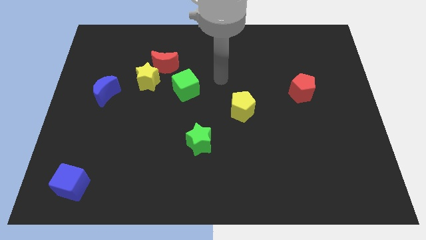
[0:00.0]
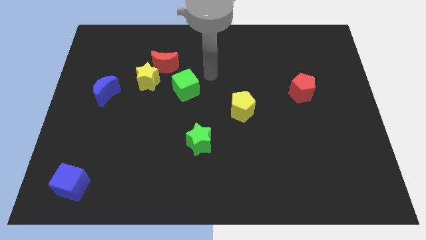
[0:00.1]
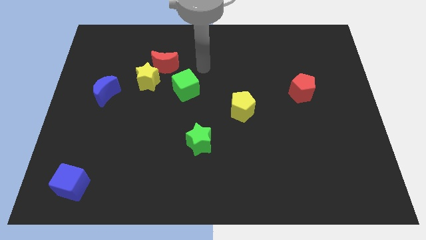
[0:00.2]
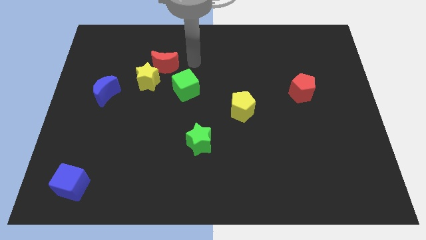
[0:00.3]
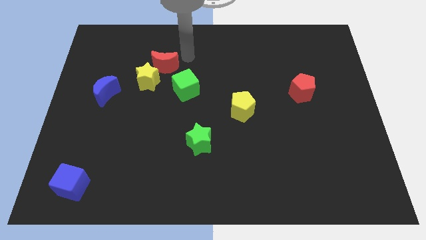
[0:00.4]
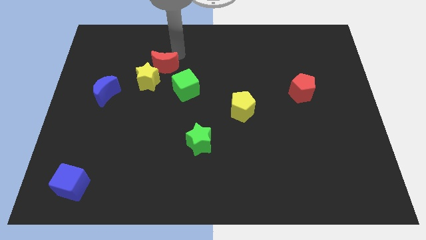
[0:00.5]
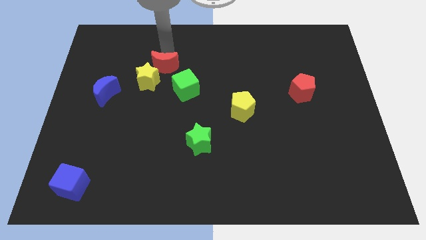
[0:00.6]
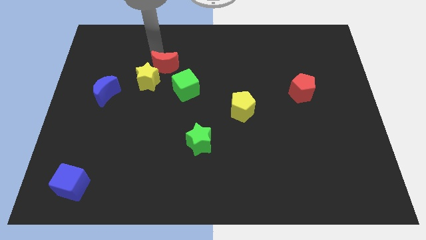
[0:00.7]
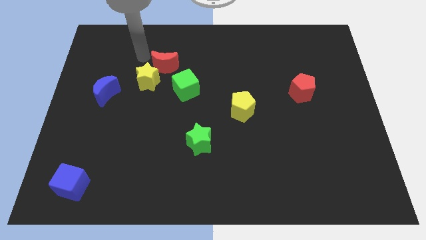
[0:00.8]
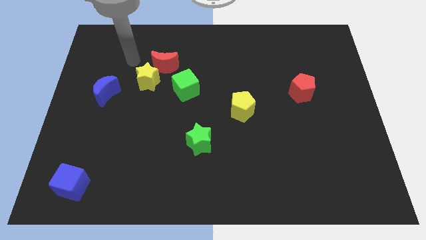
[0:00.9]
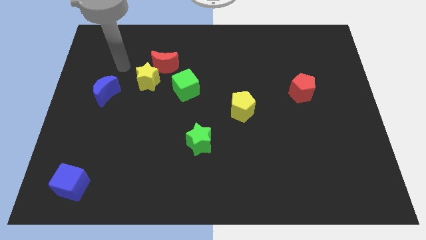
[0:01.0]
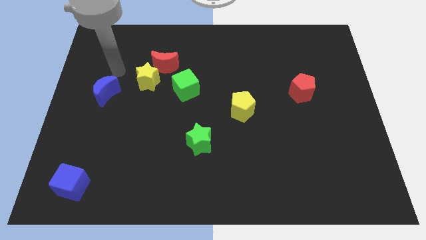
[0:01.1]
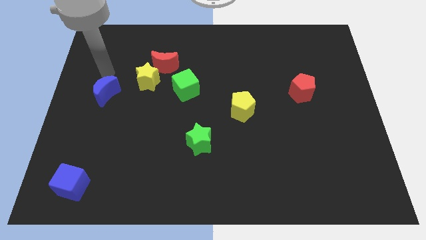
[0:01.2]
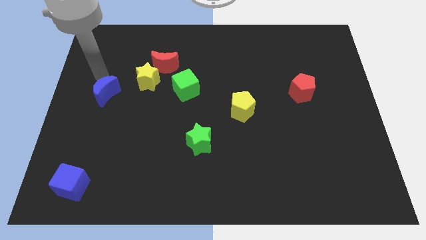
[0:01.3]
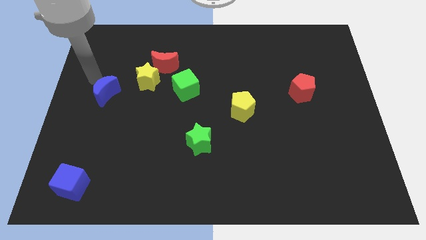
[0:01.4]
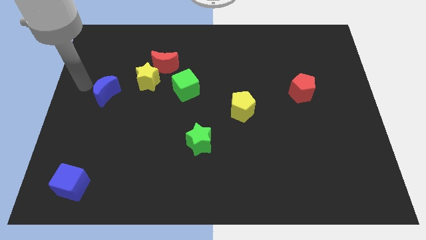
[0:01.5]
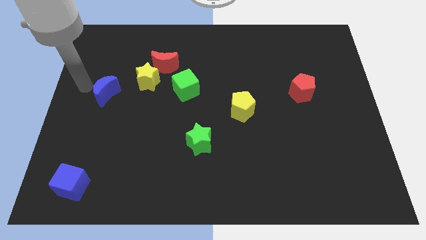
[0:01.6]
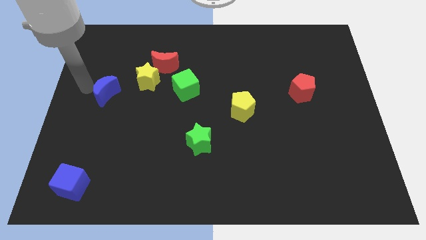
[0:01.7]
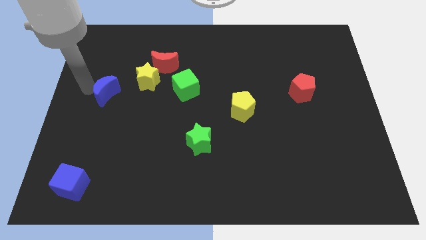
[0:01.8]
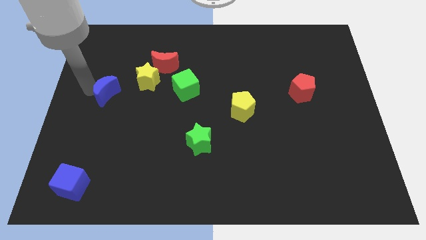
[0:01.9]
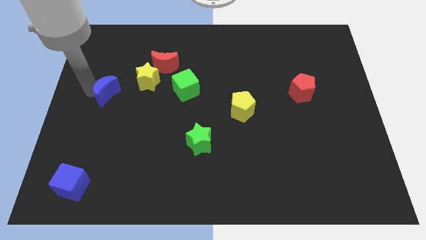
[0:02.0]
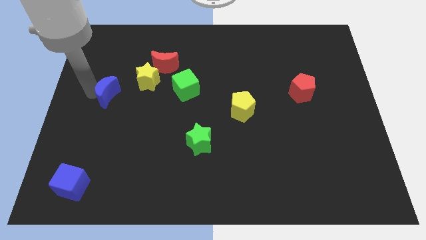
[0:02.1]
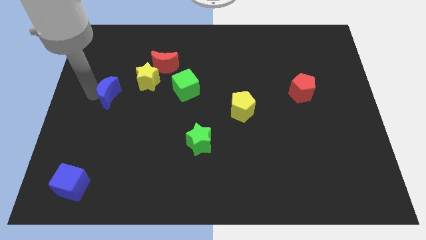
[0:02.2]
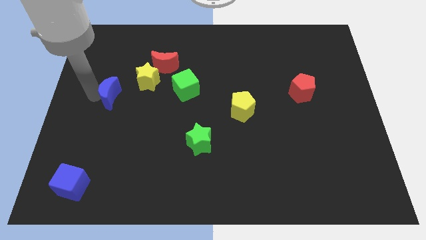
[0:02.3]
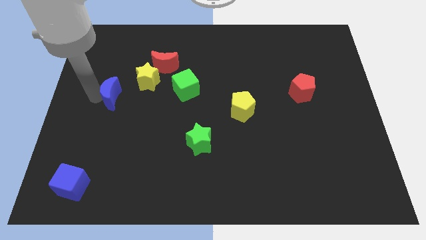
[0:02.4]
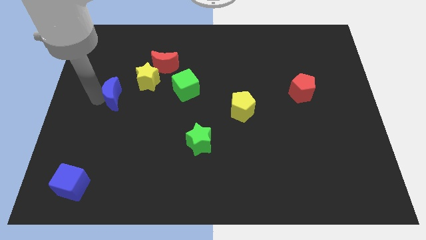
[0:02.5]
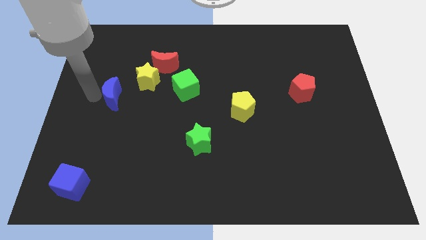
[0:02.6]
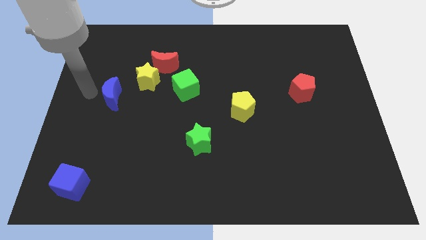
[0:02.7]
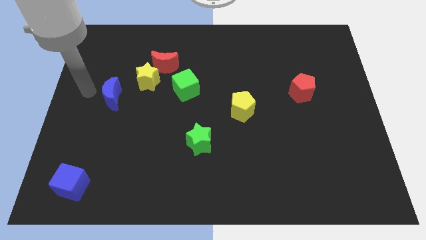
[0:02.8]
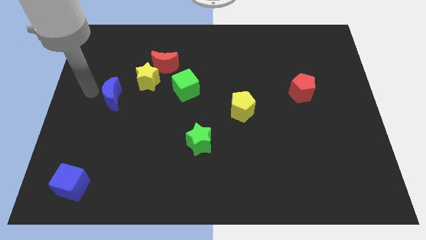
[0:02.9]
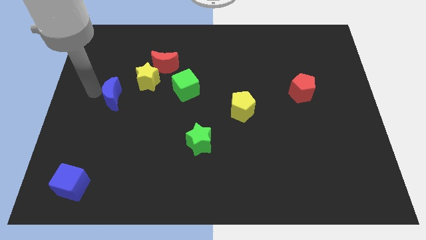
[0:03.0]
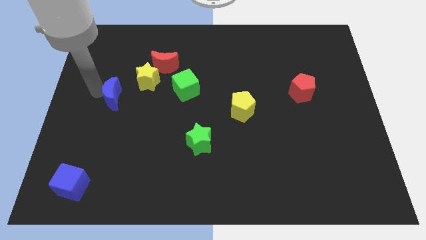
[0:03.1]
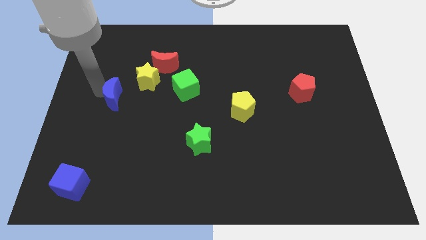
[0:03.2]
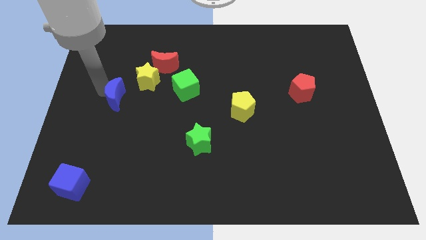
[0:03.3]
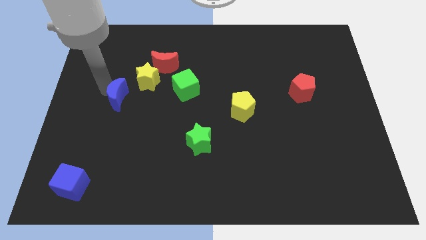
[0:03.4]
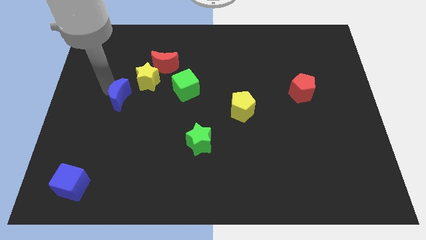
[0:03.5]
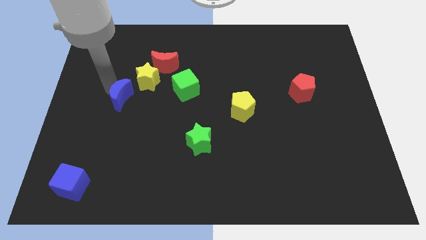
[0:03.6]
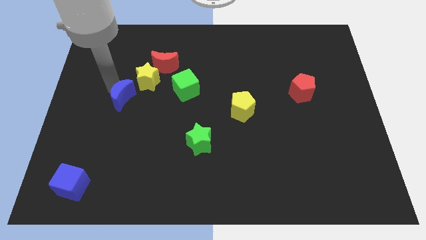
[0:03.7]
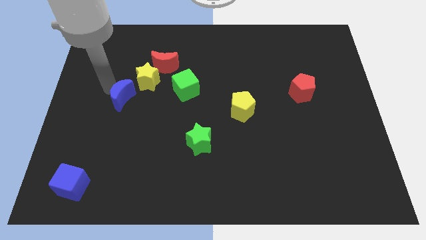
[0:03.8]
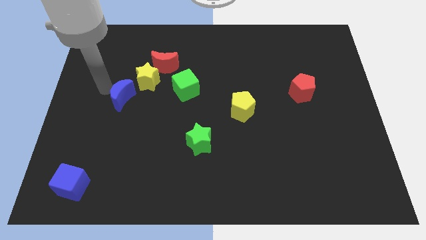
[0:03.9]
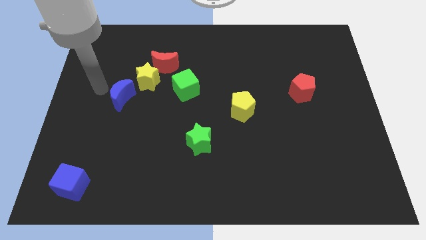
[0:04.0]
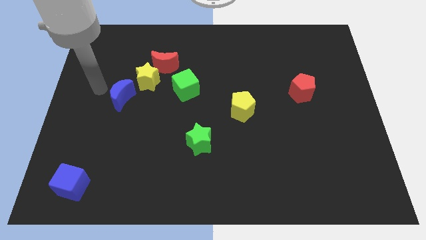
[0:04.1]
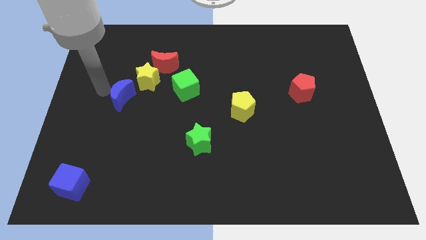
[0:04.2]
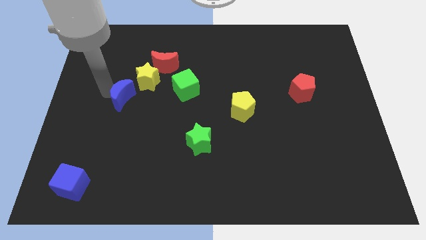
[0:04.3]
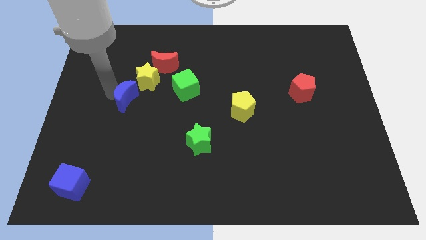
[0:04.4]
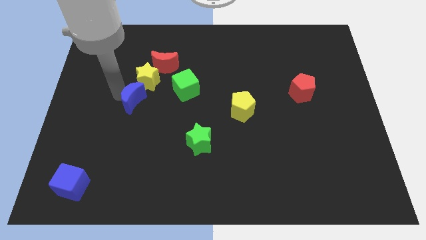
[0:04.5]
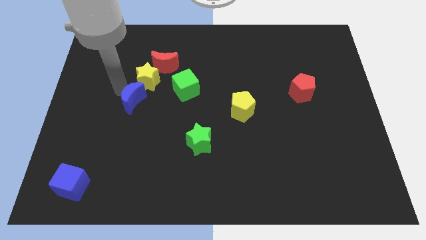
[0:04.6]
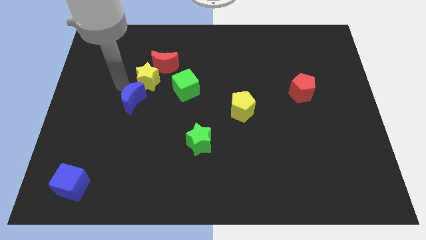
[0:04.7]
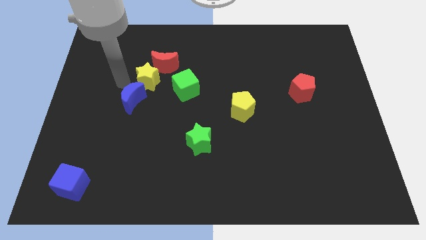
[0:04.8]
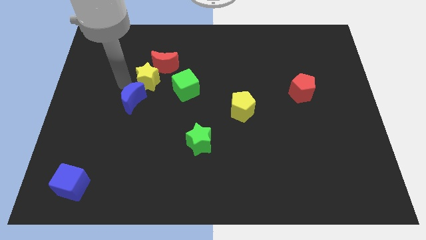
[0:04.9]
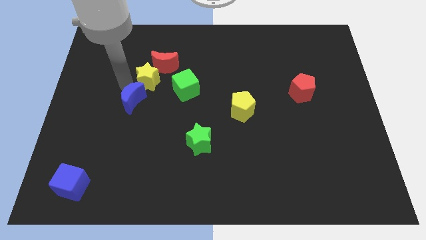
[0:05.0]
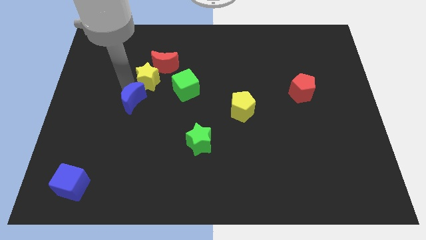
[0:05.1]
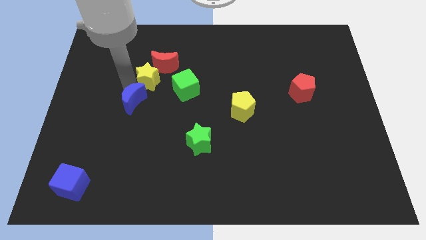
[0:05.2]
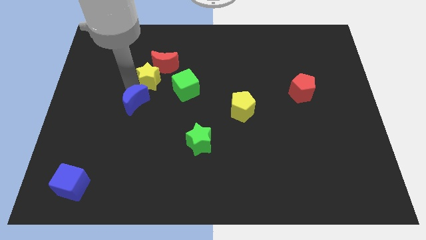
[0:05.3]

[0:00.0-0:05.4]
move the blue moon a little bit downwards and right

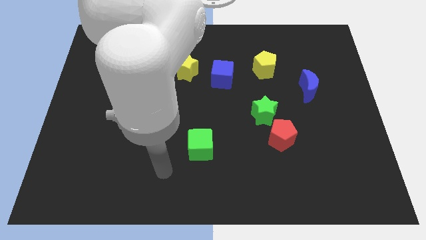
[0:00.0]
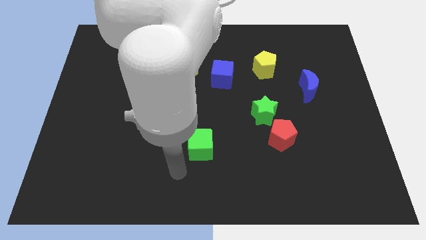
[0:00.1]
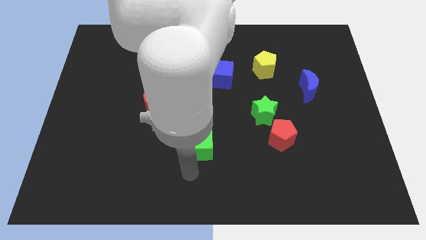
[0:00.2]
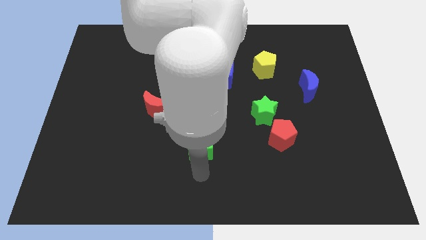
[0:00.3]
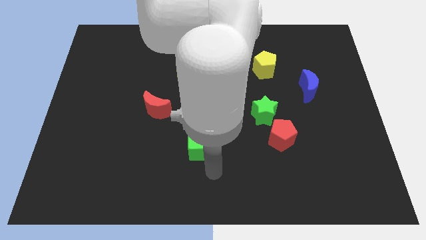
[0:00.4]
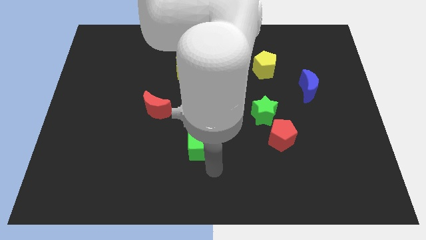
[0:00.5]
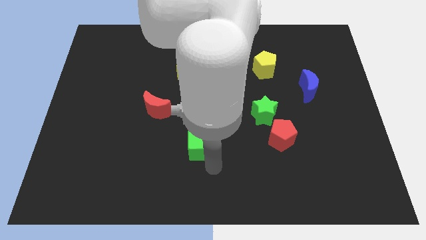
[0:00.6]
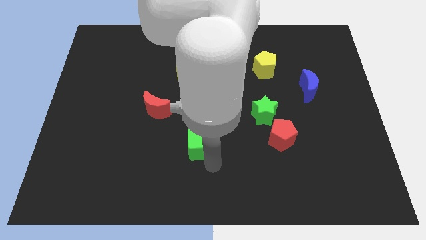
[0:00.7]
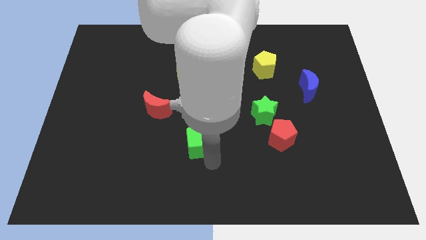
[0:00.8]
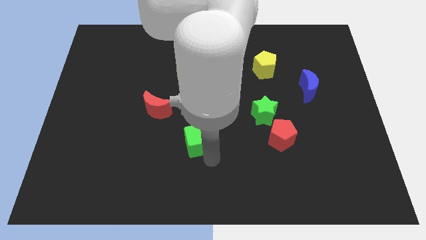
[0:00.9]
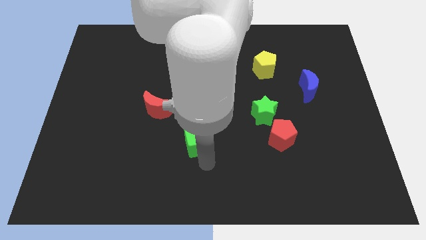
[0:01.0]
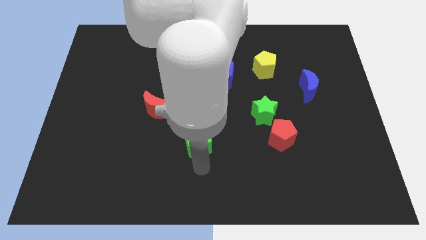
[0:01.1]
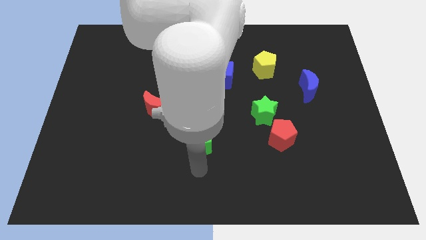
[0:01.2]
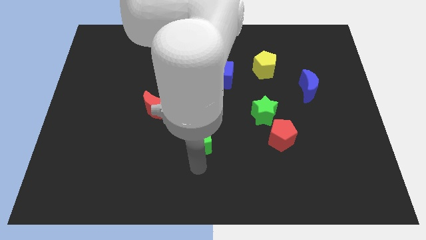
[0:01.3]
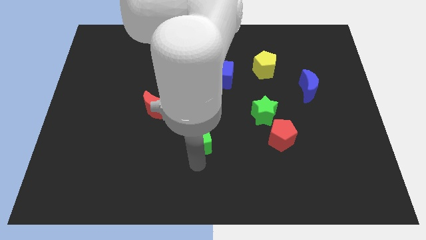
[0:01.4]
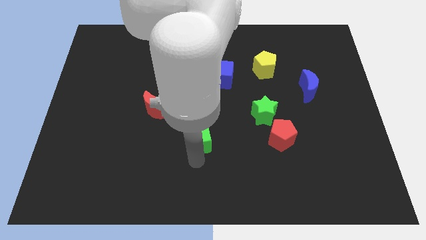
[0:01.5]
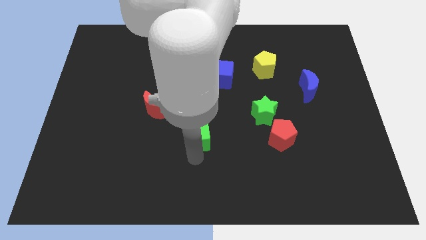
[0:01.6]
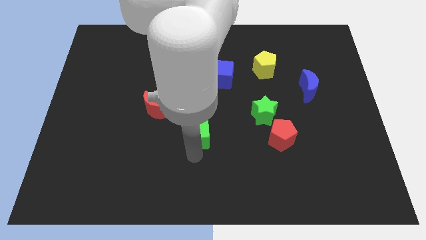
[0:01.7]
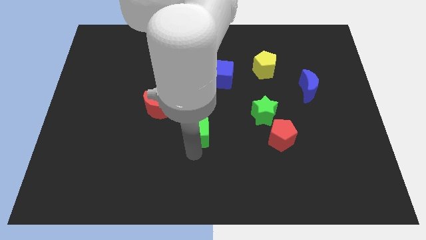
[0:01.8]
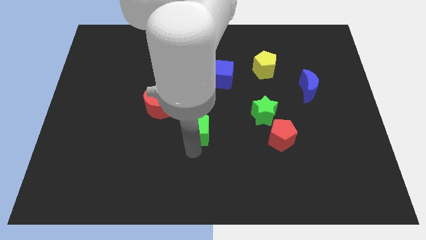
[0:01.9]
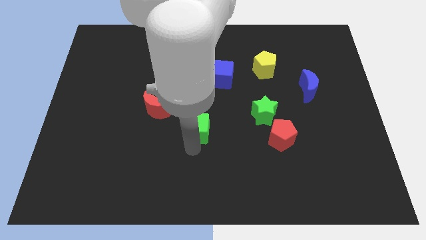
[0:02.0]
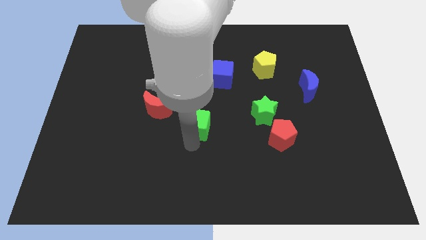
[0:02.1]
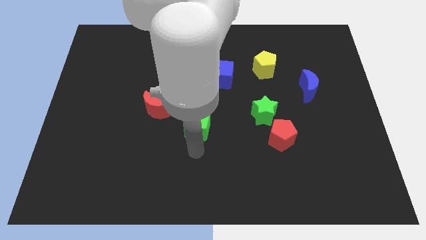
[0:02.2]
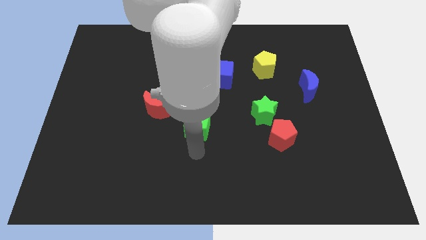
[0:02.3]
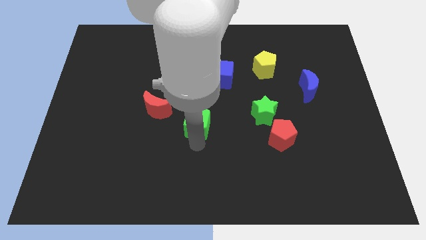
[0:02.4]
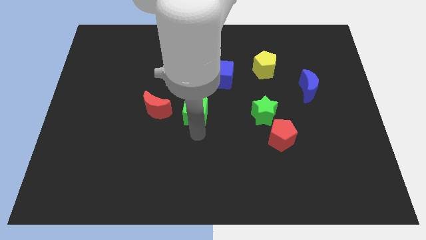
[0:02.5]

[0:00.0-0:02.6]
move the green cube up slightly

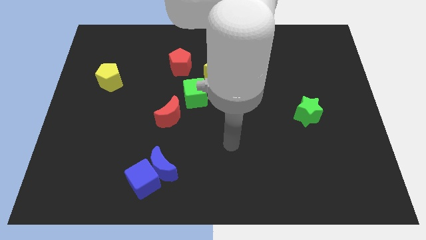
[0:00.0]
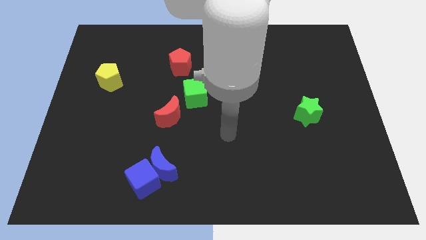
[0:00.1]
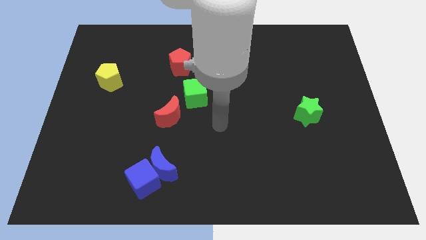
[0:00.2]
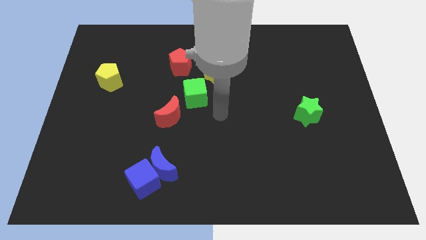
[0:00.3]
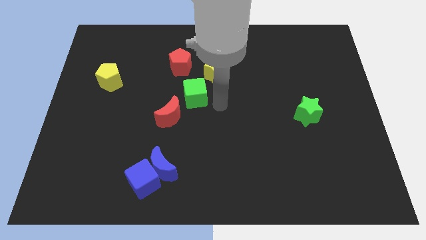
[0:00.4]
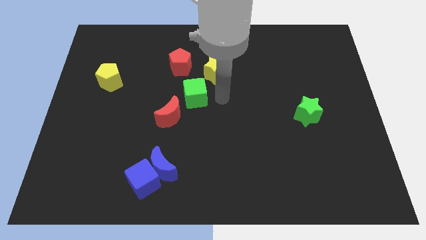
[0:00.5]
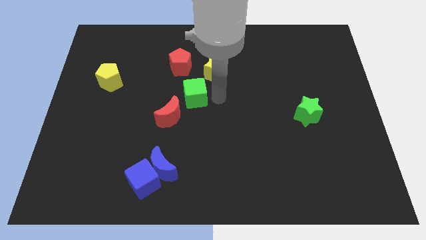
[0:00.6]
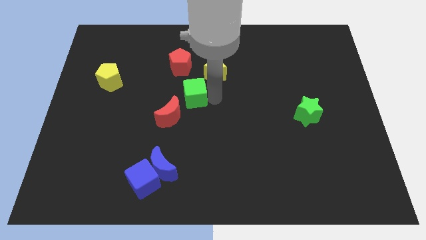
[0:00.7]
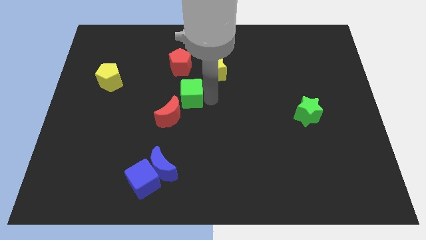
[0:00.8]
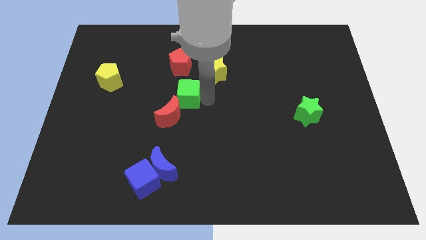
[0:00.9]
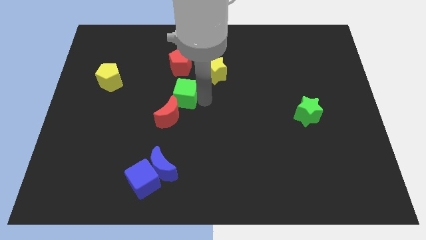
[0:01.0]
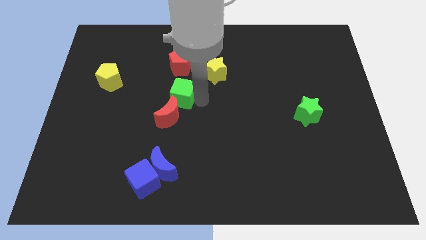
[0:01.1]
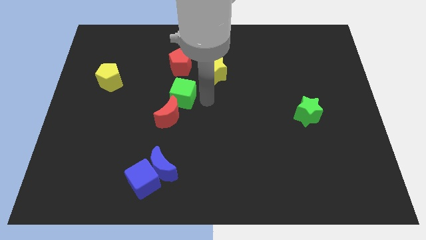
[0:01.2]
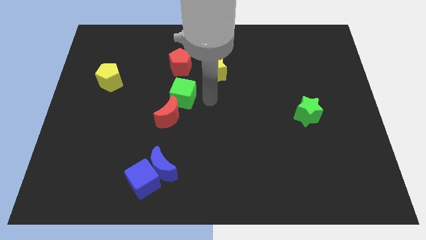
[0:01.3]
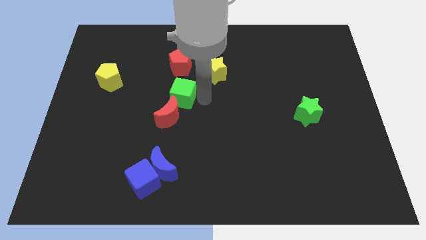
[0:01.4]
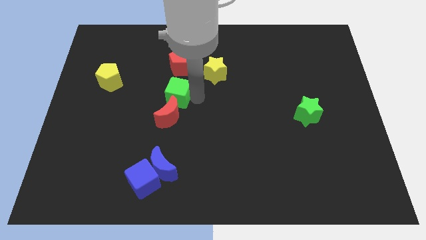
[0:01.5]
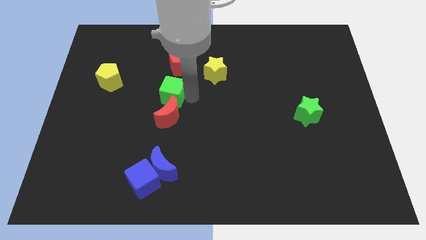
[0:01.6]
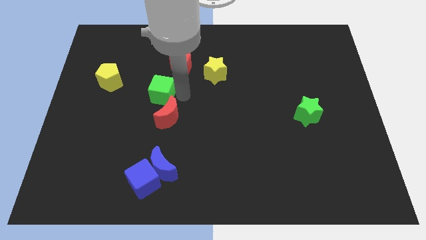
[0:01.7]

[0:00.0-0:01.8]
move the green cube left somewhat
